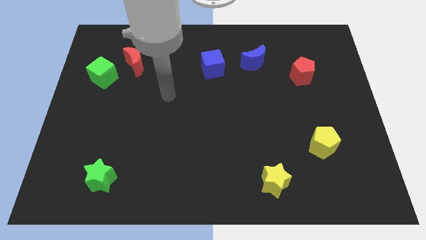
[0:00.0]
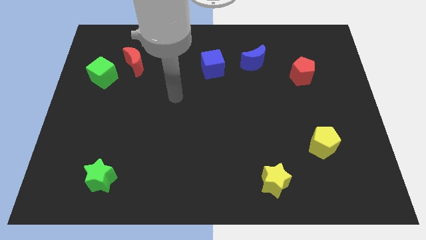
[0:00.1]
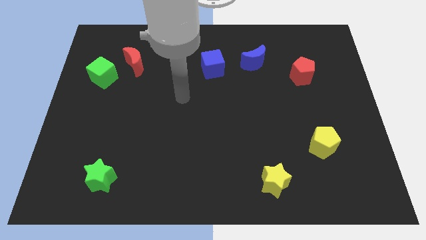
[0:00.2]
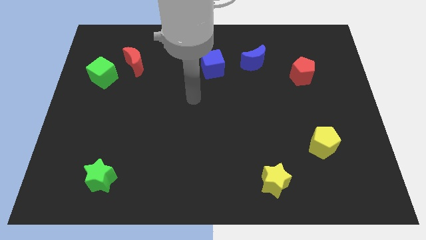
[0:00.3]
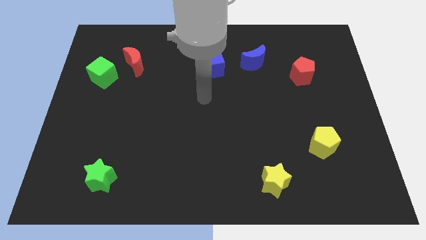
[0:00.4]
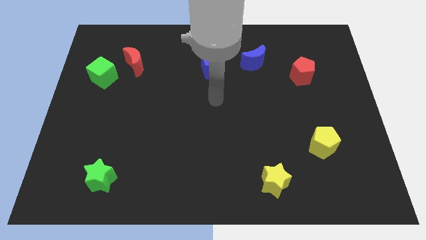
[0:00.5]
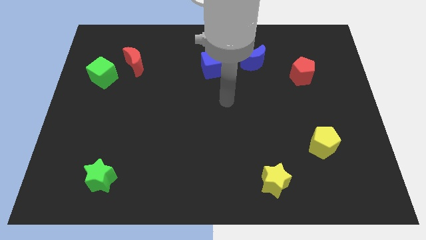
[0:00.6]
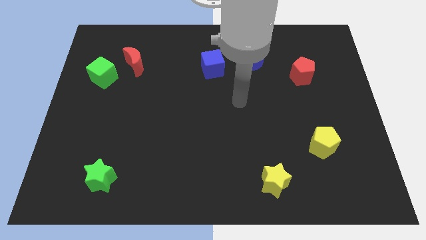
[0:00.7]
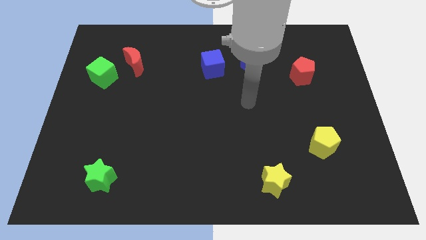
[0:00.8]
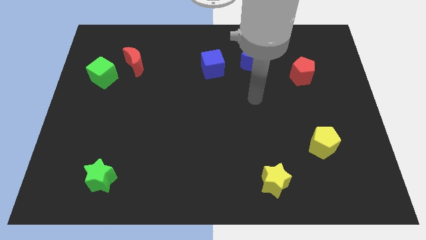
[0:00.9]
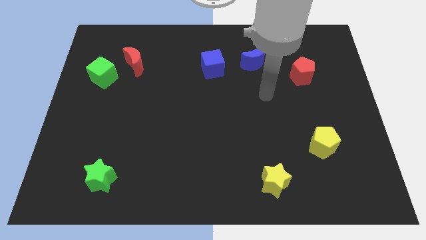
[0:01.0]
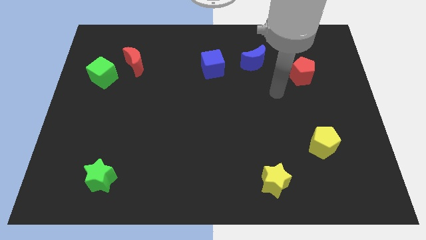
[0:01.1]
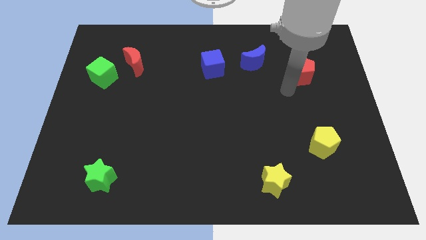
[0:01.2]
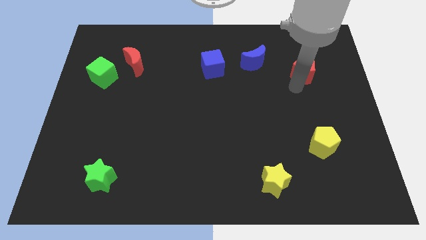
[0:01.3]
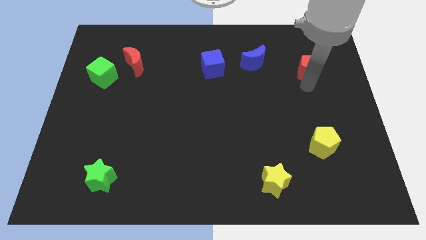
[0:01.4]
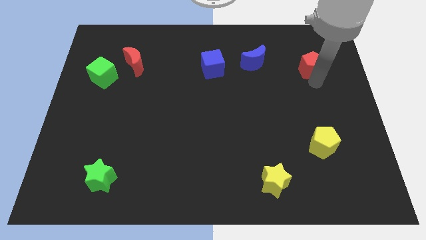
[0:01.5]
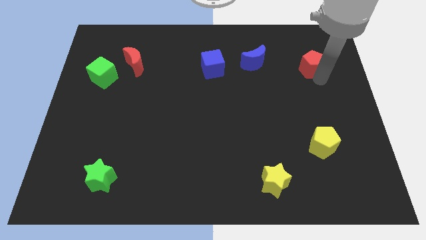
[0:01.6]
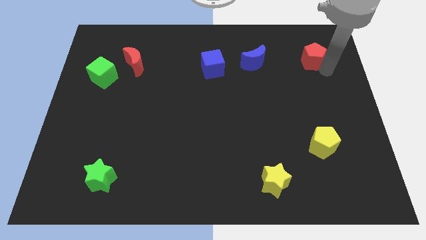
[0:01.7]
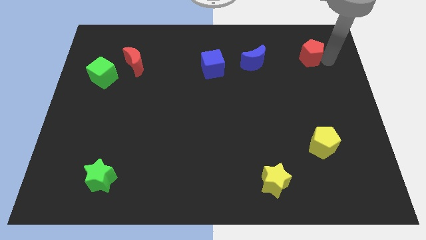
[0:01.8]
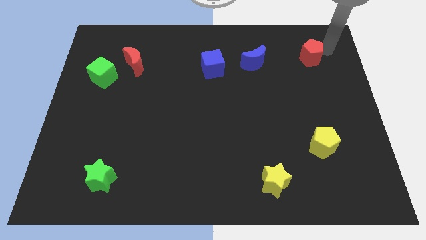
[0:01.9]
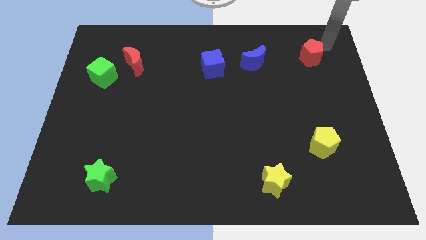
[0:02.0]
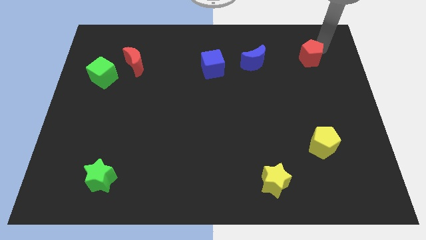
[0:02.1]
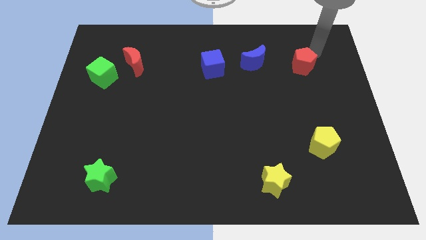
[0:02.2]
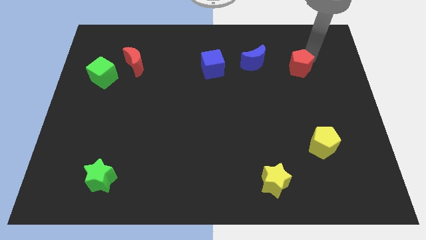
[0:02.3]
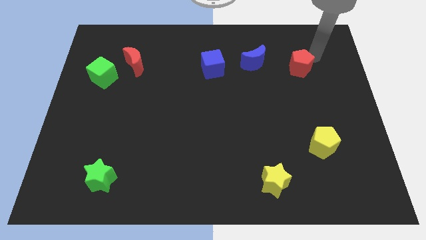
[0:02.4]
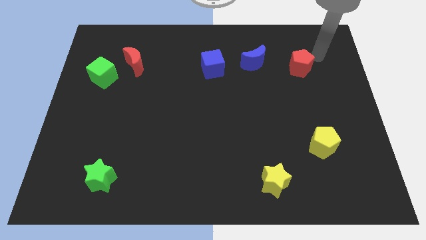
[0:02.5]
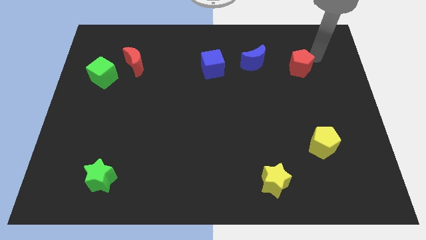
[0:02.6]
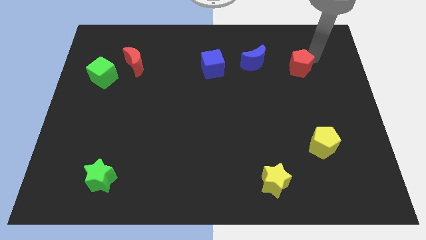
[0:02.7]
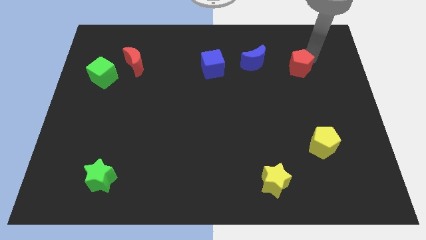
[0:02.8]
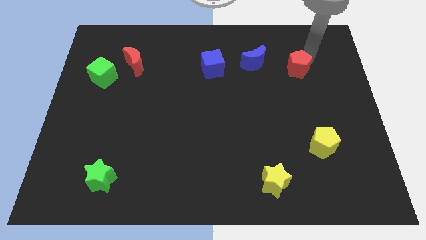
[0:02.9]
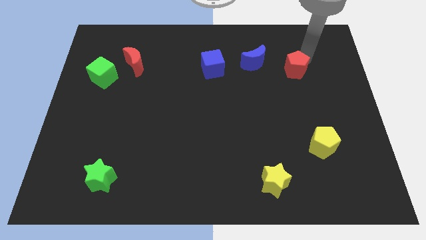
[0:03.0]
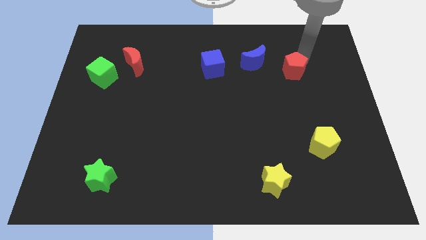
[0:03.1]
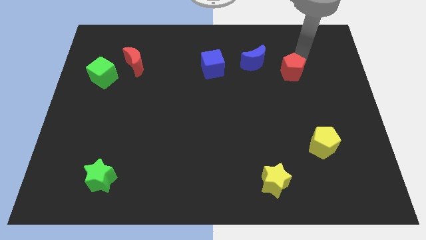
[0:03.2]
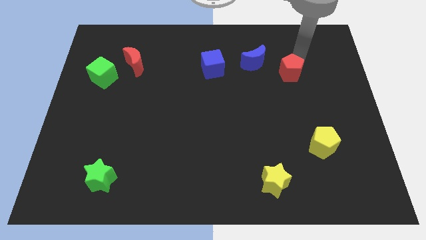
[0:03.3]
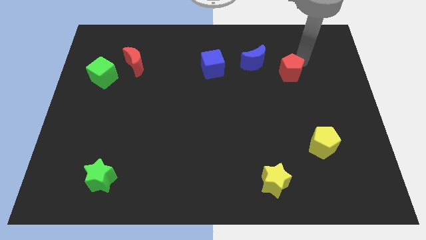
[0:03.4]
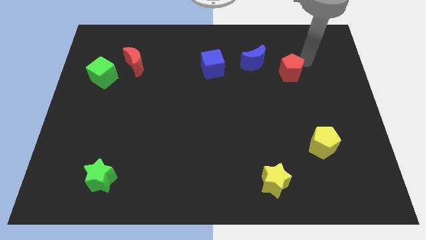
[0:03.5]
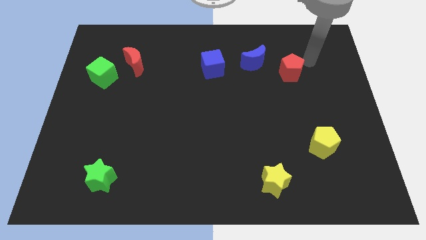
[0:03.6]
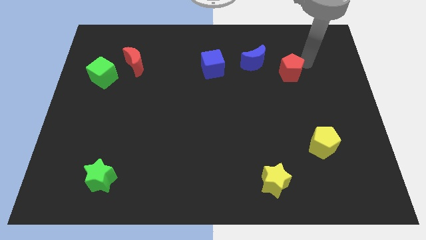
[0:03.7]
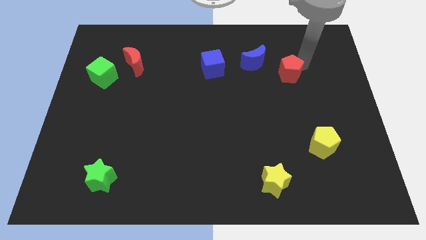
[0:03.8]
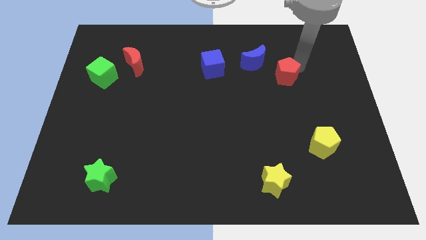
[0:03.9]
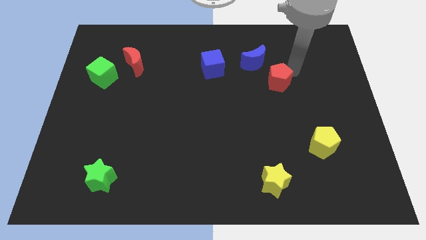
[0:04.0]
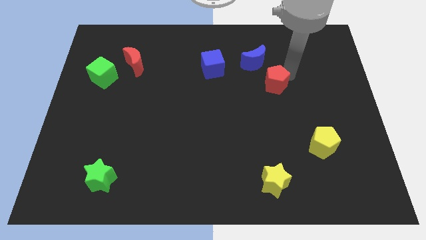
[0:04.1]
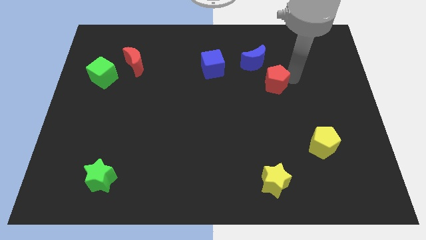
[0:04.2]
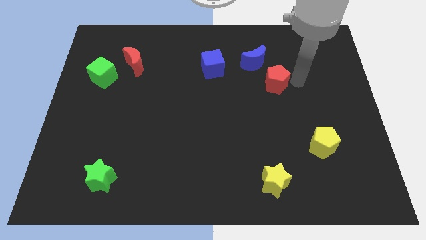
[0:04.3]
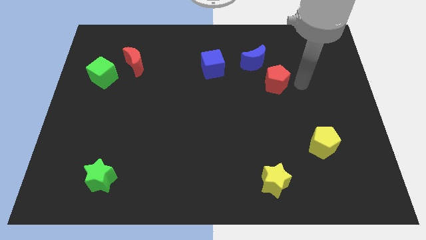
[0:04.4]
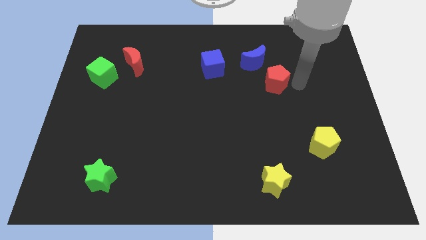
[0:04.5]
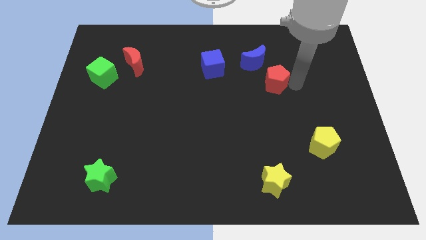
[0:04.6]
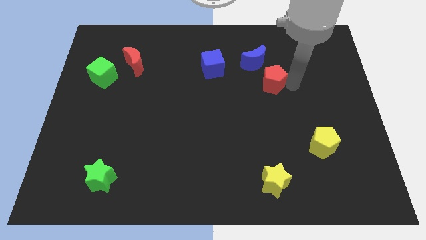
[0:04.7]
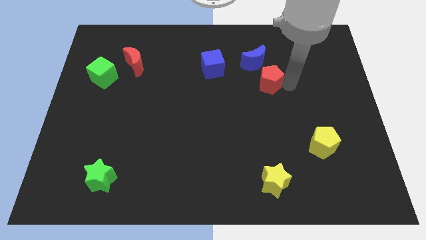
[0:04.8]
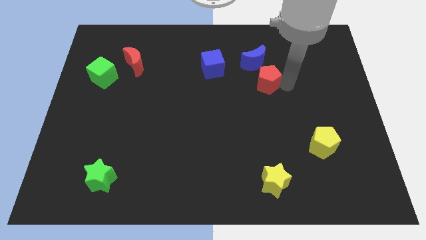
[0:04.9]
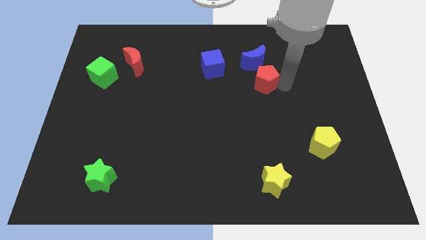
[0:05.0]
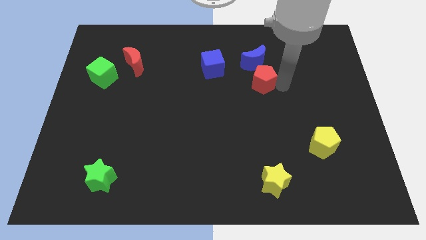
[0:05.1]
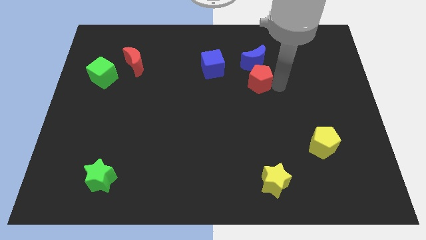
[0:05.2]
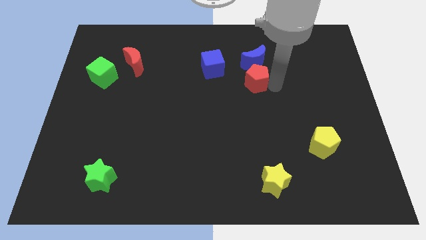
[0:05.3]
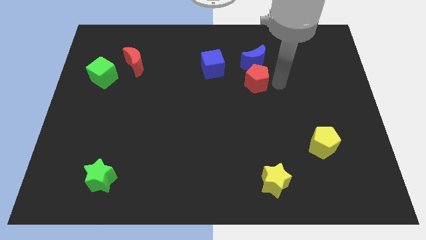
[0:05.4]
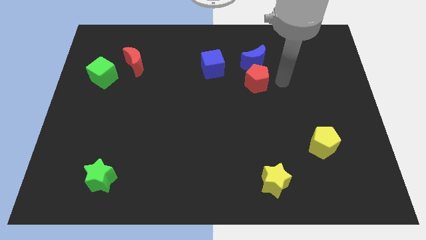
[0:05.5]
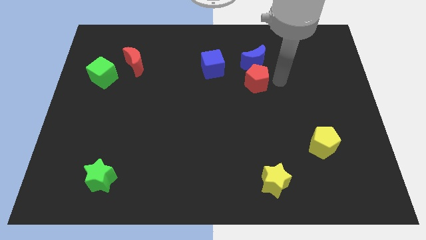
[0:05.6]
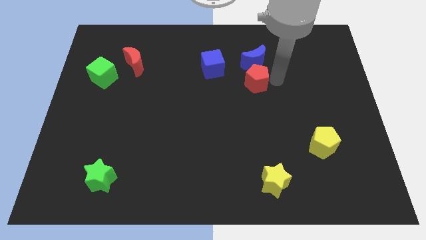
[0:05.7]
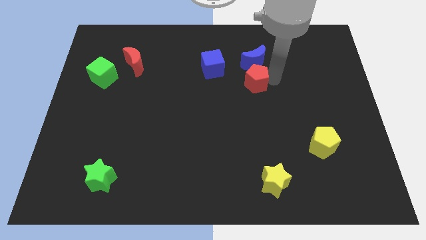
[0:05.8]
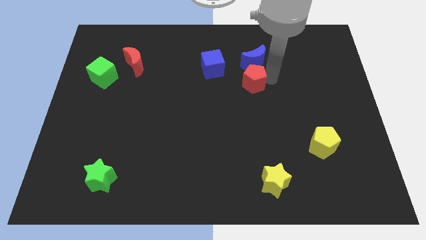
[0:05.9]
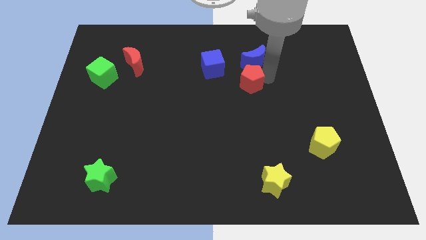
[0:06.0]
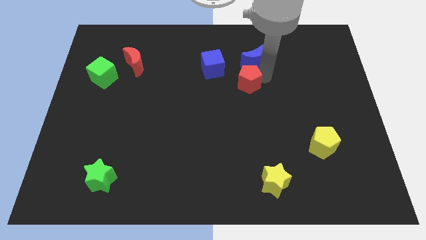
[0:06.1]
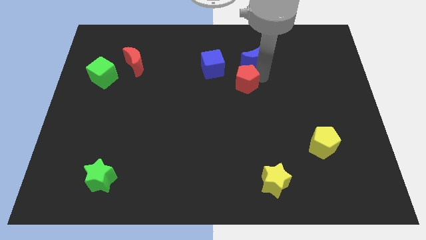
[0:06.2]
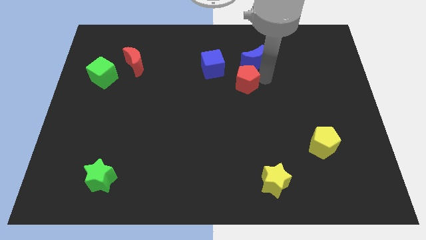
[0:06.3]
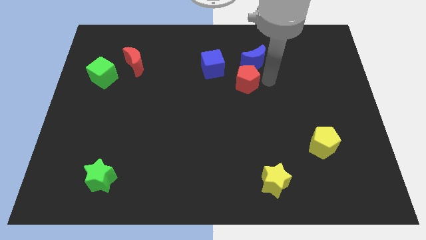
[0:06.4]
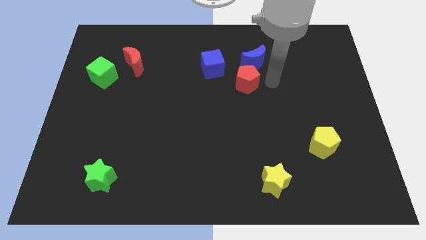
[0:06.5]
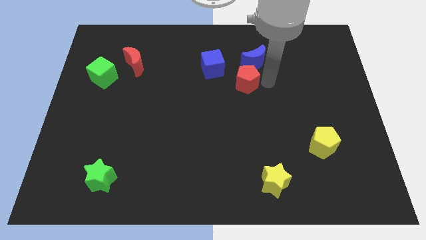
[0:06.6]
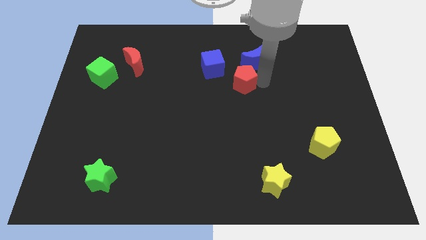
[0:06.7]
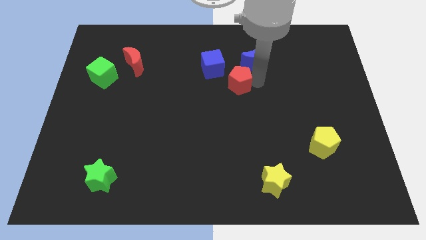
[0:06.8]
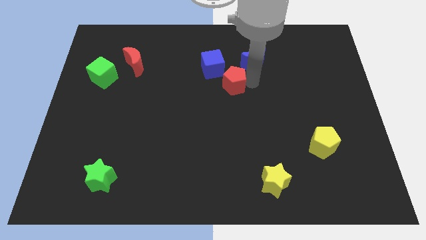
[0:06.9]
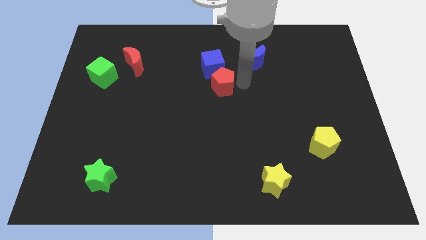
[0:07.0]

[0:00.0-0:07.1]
push the red pentagon to the left

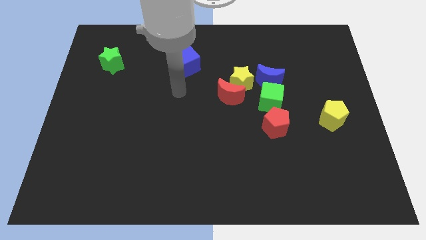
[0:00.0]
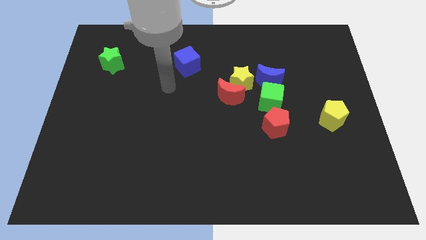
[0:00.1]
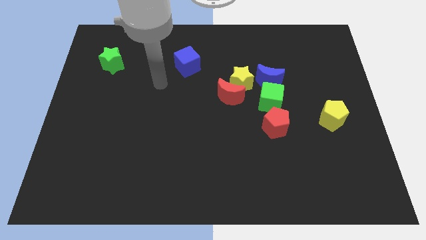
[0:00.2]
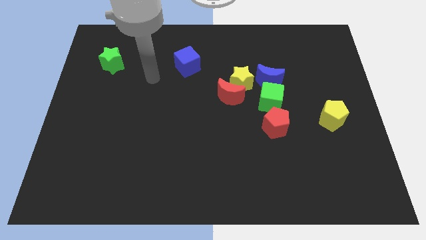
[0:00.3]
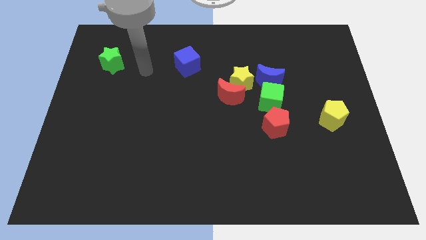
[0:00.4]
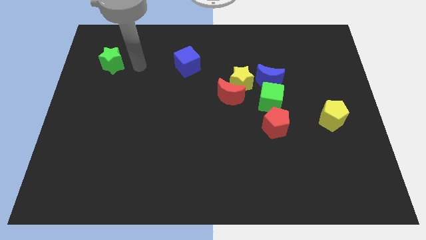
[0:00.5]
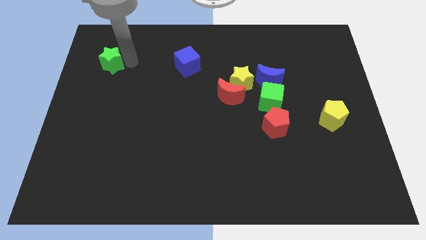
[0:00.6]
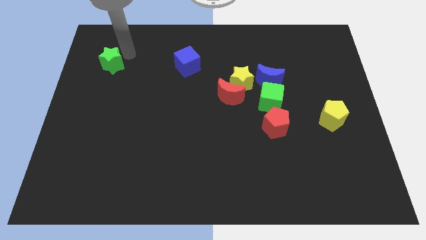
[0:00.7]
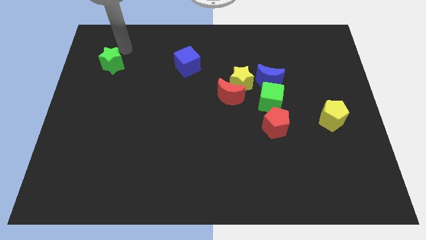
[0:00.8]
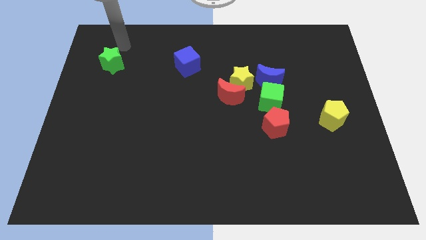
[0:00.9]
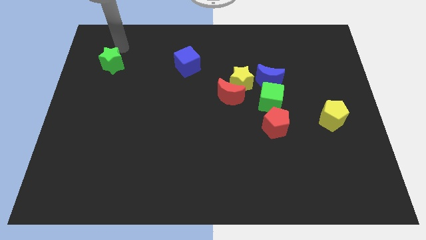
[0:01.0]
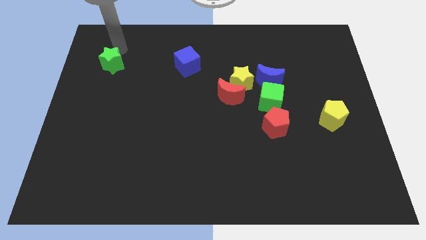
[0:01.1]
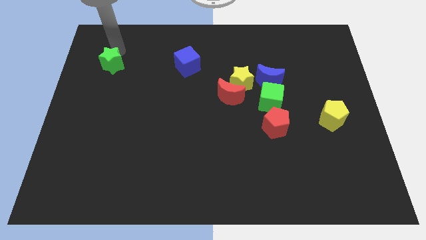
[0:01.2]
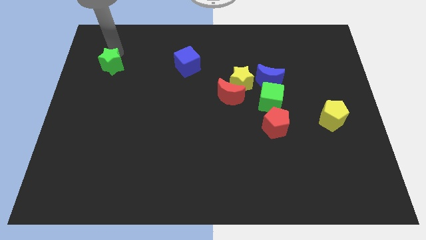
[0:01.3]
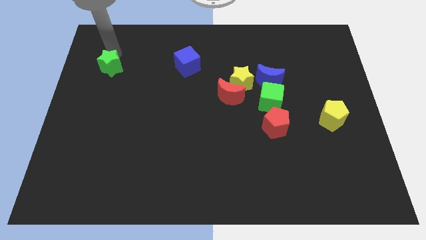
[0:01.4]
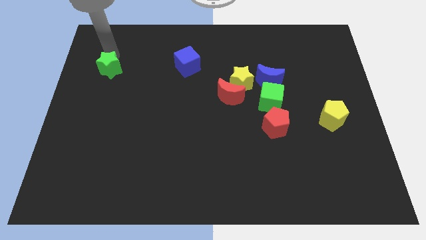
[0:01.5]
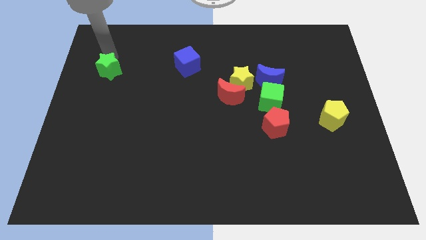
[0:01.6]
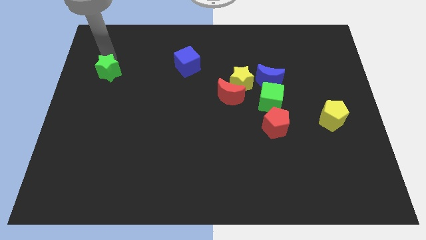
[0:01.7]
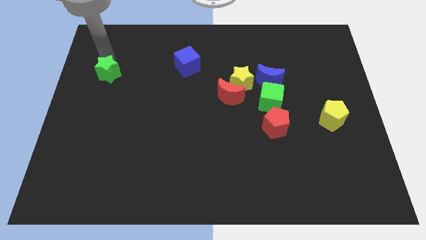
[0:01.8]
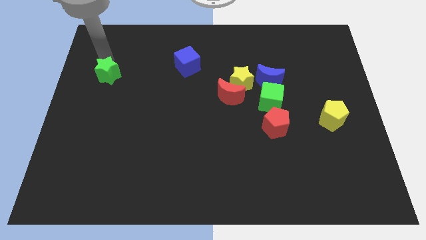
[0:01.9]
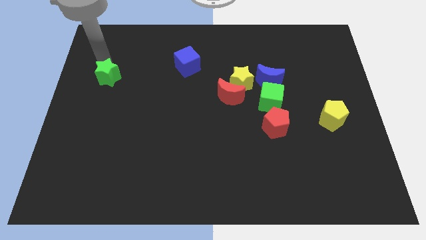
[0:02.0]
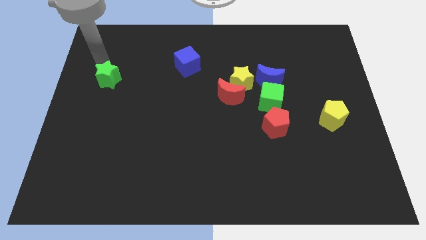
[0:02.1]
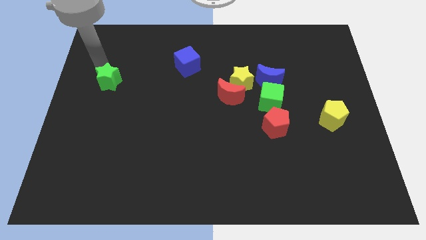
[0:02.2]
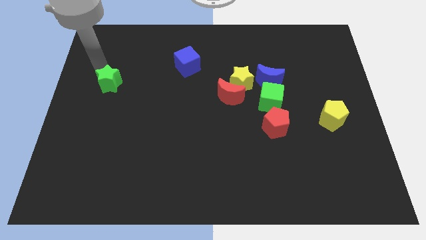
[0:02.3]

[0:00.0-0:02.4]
slightly slide the green star downwards
